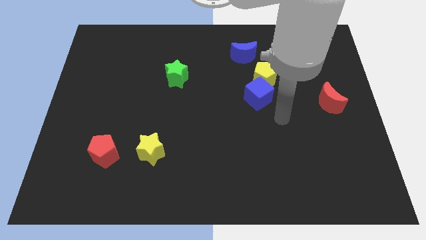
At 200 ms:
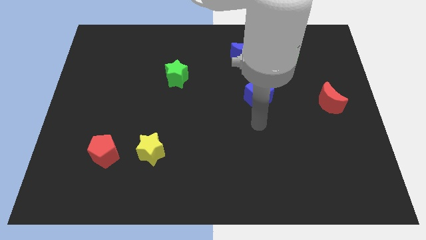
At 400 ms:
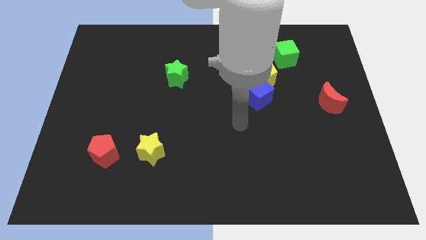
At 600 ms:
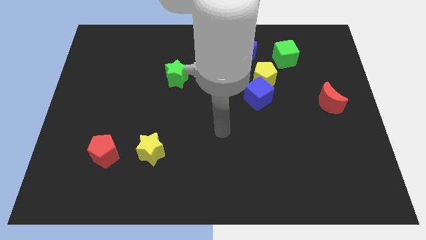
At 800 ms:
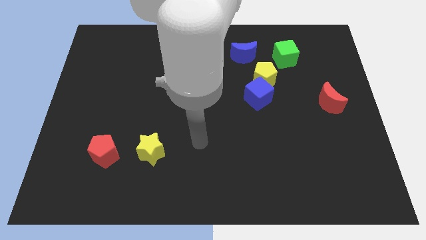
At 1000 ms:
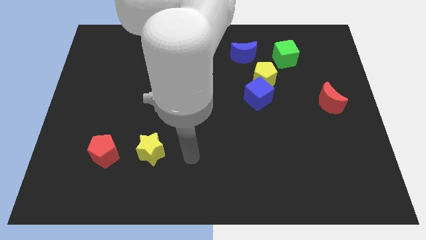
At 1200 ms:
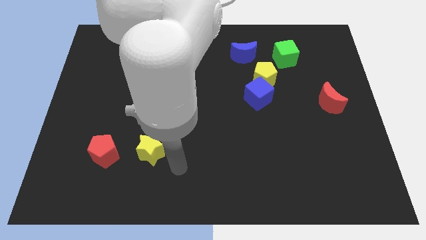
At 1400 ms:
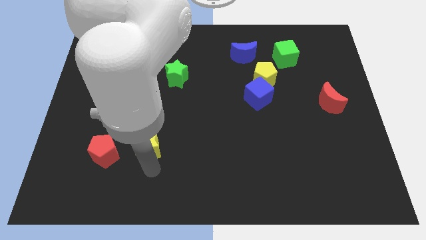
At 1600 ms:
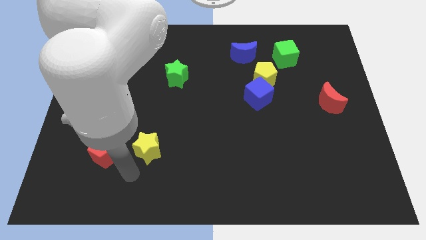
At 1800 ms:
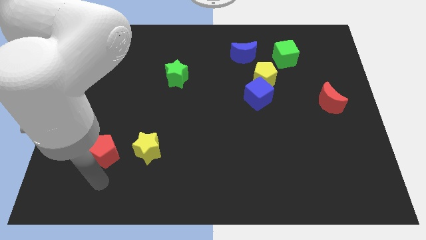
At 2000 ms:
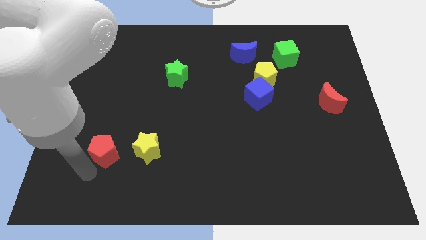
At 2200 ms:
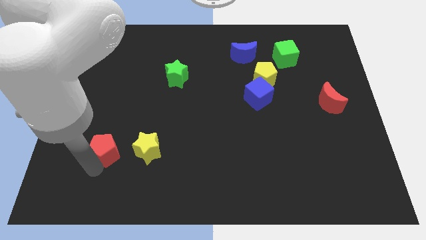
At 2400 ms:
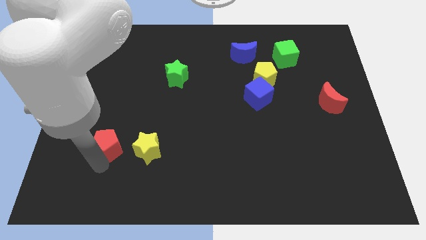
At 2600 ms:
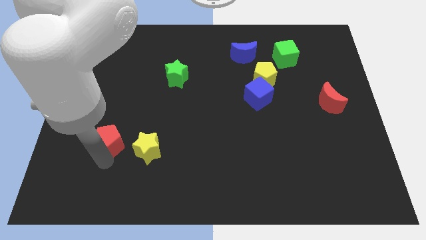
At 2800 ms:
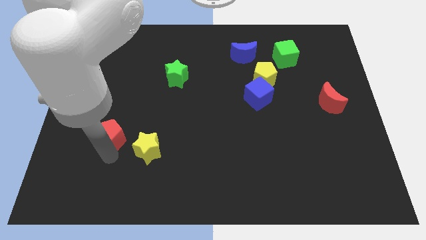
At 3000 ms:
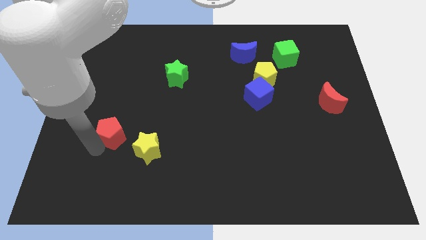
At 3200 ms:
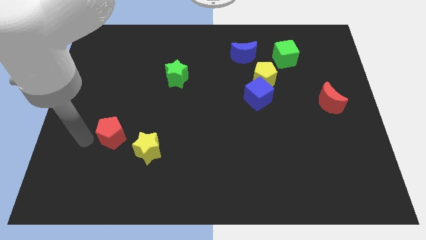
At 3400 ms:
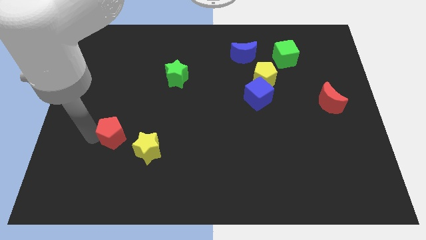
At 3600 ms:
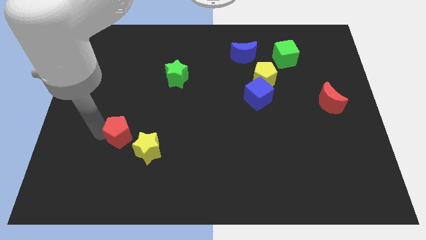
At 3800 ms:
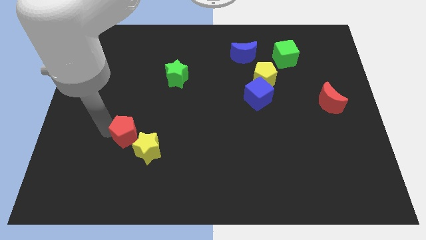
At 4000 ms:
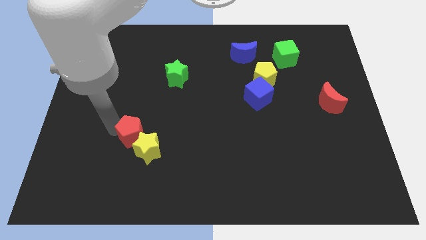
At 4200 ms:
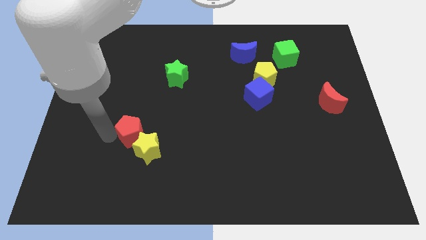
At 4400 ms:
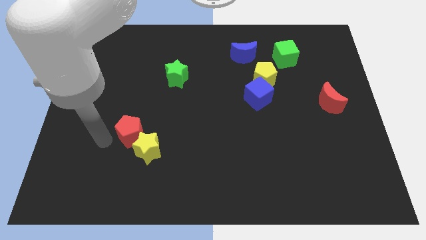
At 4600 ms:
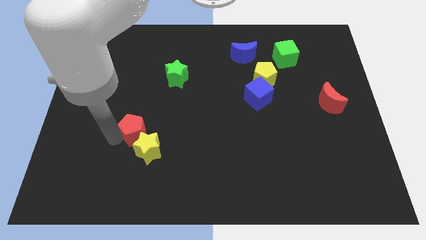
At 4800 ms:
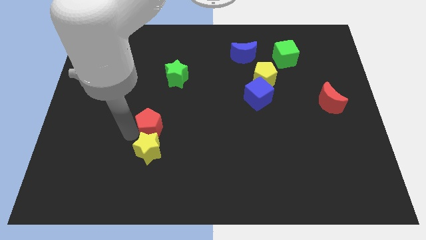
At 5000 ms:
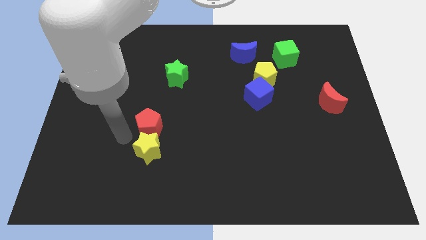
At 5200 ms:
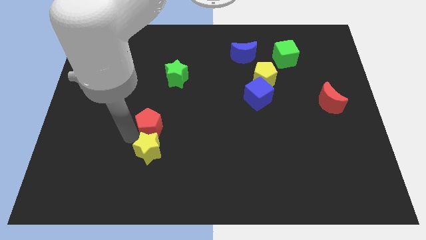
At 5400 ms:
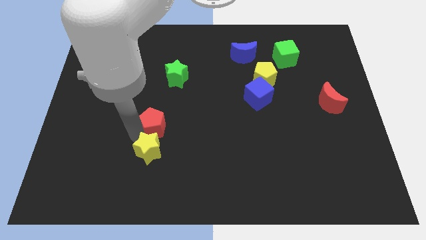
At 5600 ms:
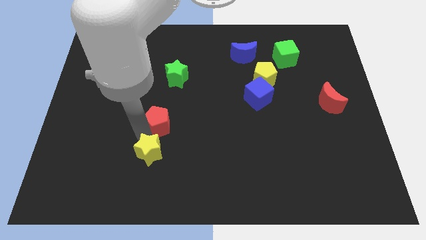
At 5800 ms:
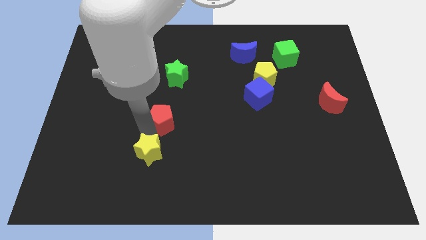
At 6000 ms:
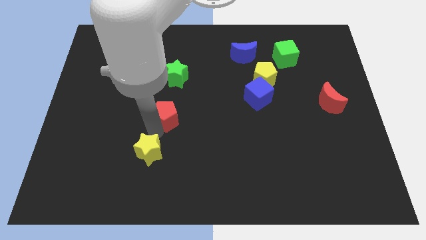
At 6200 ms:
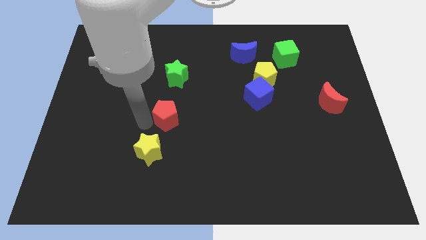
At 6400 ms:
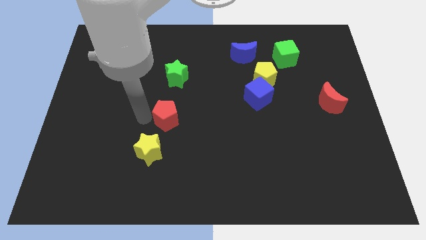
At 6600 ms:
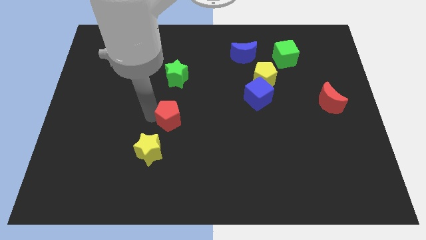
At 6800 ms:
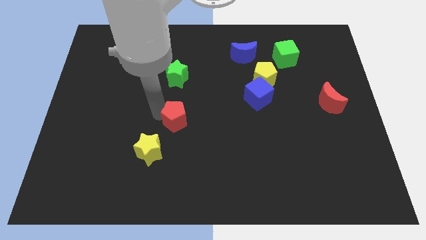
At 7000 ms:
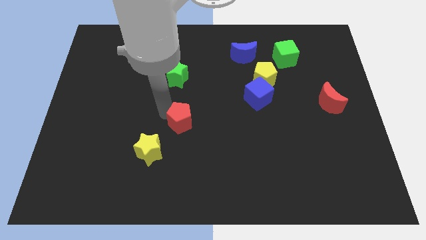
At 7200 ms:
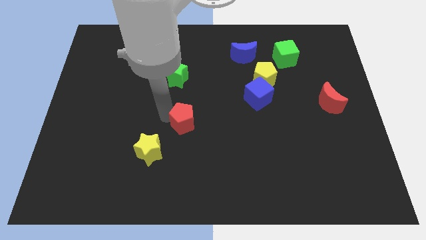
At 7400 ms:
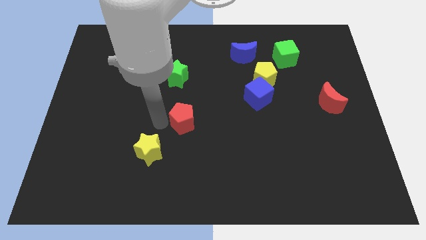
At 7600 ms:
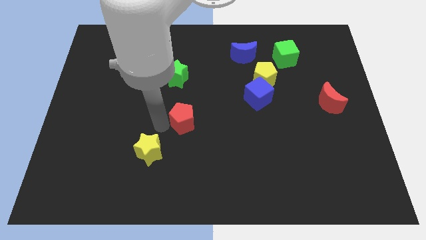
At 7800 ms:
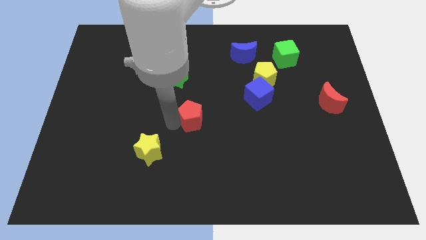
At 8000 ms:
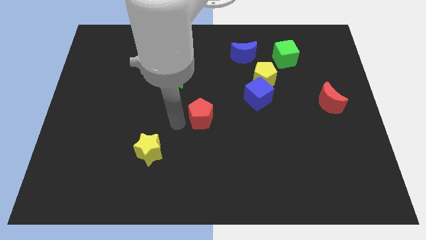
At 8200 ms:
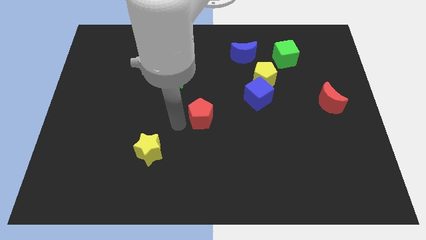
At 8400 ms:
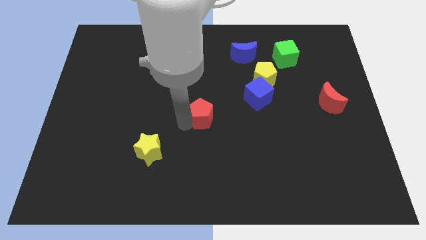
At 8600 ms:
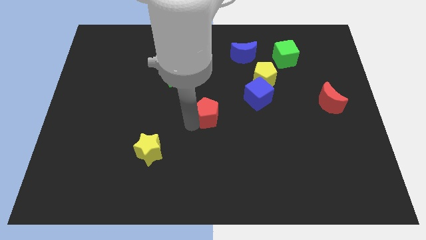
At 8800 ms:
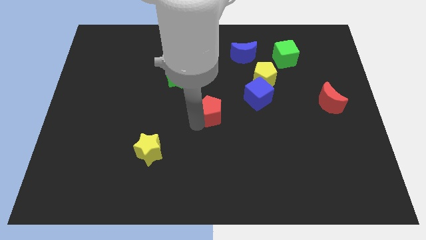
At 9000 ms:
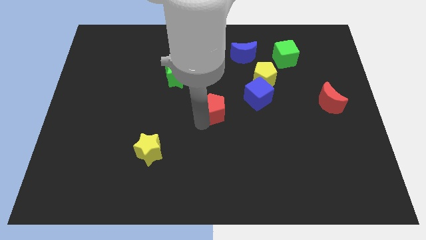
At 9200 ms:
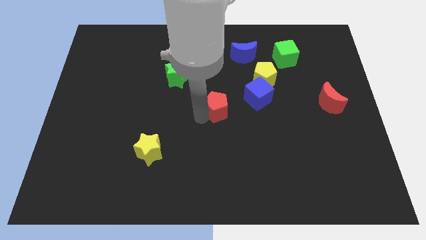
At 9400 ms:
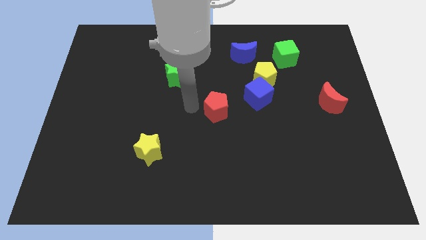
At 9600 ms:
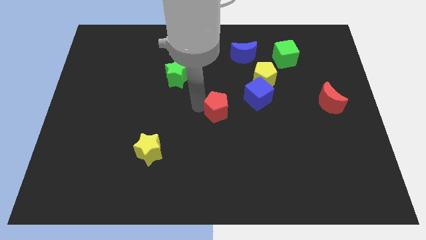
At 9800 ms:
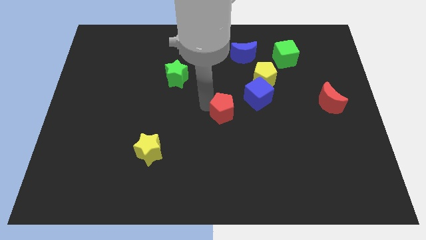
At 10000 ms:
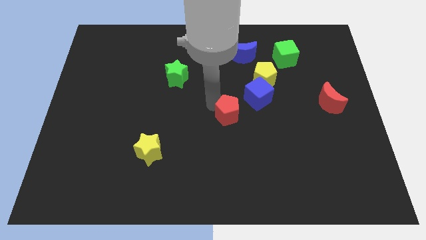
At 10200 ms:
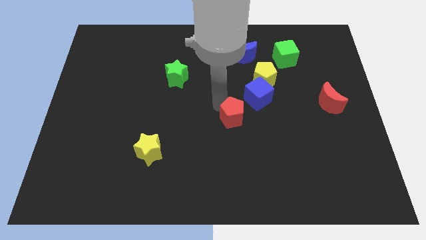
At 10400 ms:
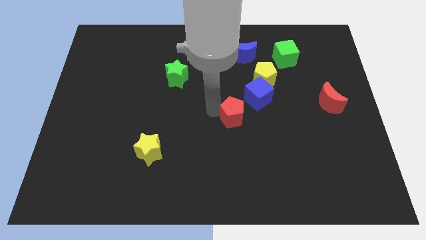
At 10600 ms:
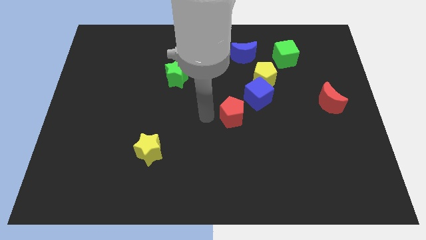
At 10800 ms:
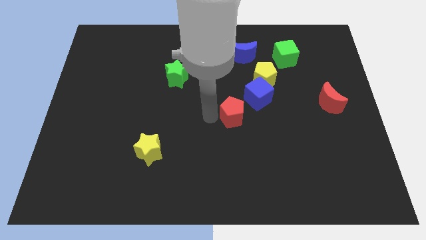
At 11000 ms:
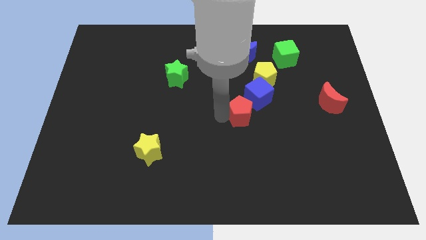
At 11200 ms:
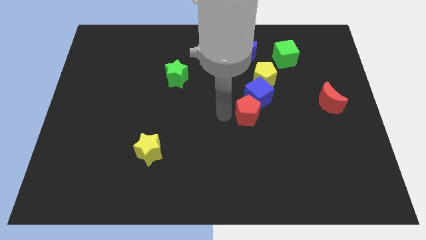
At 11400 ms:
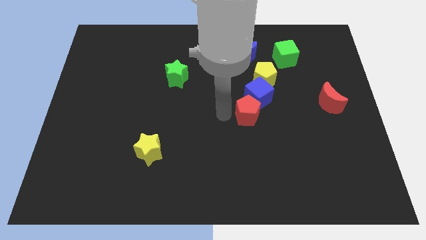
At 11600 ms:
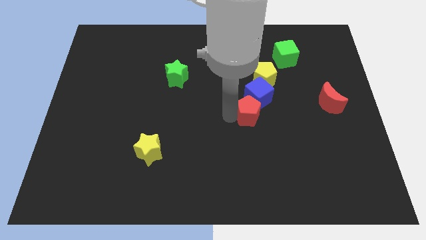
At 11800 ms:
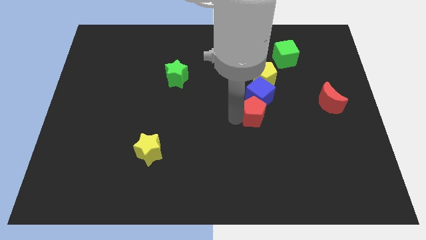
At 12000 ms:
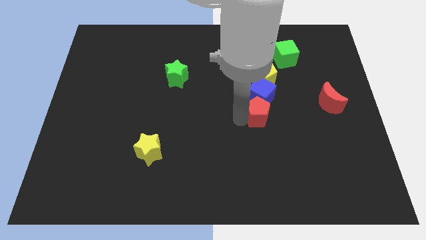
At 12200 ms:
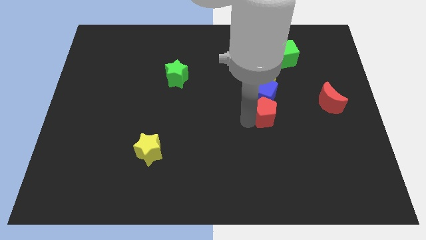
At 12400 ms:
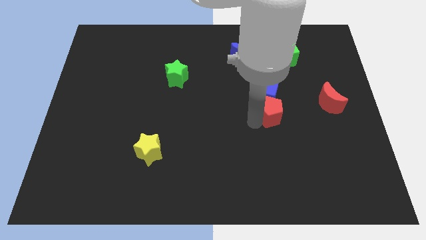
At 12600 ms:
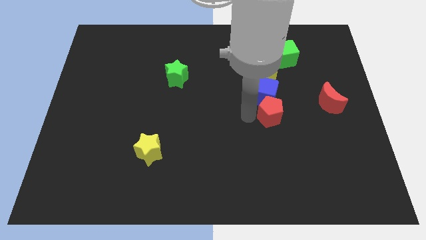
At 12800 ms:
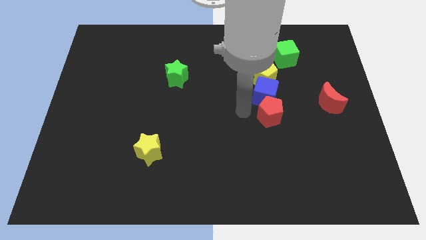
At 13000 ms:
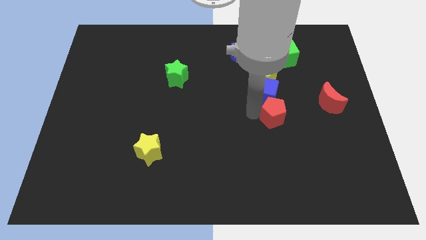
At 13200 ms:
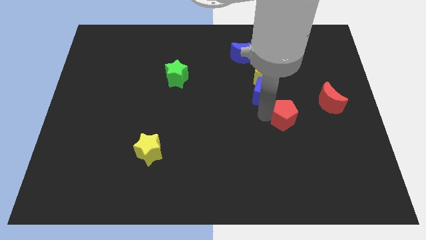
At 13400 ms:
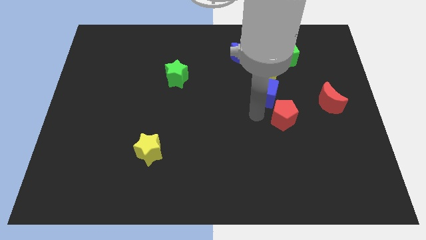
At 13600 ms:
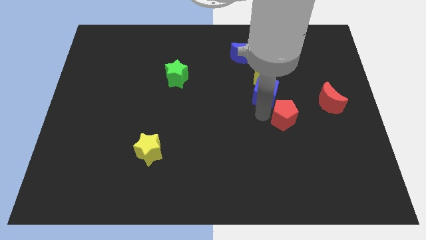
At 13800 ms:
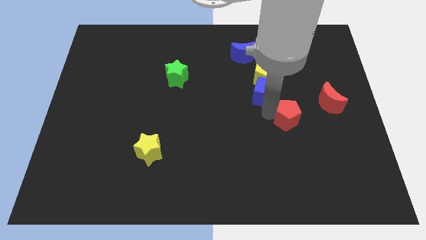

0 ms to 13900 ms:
push the red pentagon diagonally down and to the left of the red moon

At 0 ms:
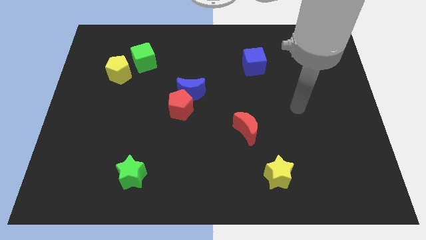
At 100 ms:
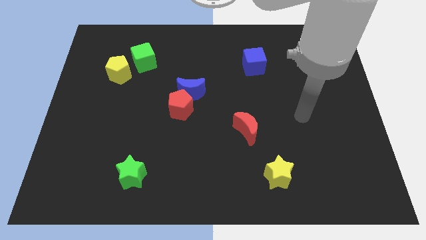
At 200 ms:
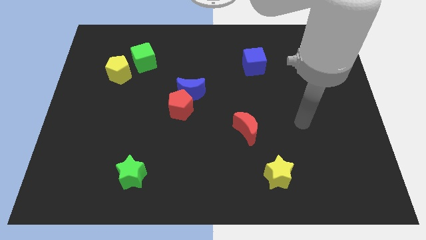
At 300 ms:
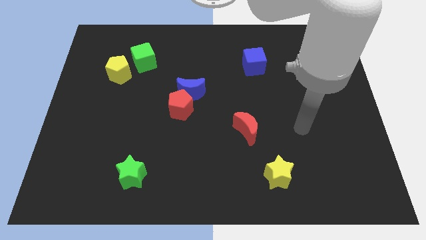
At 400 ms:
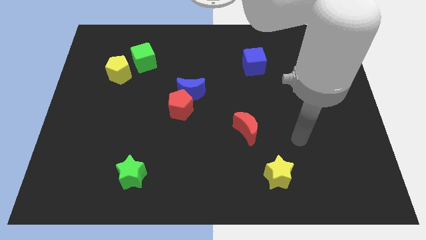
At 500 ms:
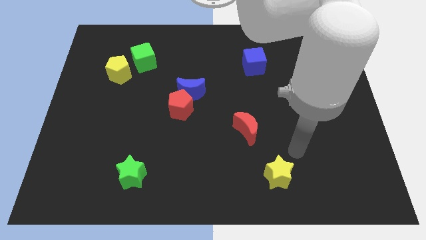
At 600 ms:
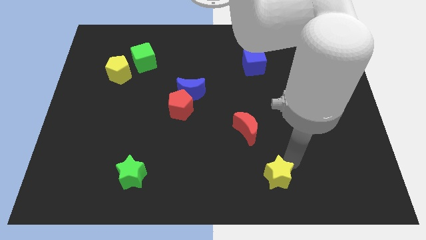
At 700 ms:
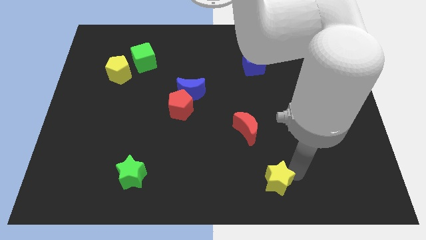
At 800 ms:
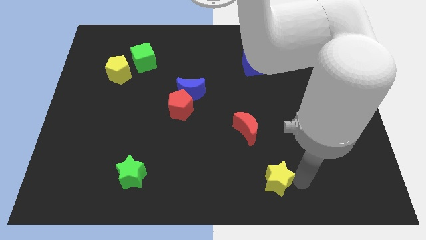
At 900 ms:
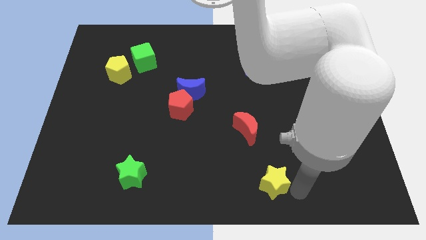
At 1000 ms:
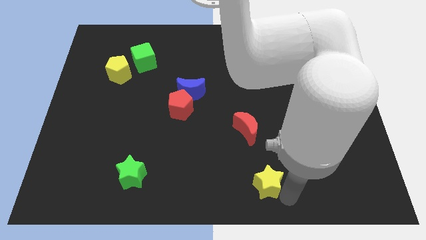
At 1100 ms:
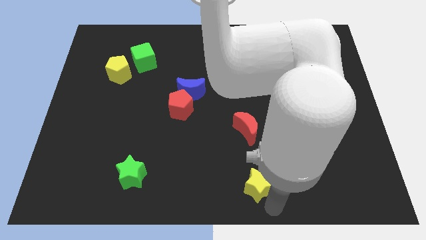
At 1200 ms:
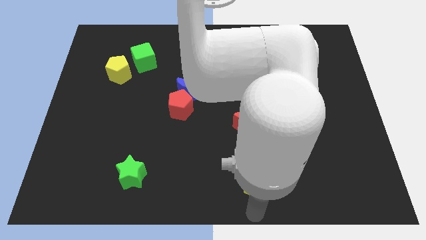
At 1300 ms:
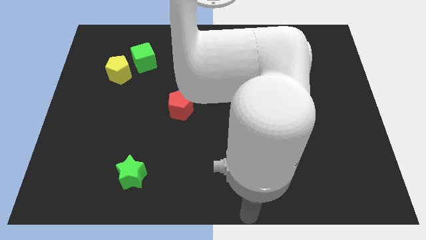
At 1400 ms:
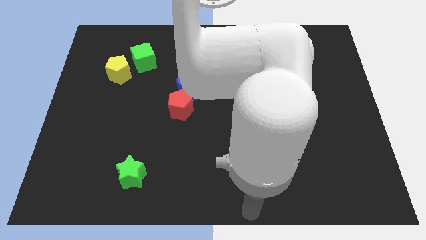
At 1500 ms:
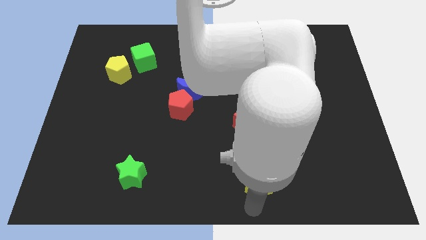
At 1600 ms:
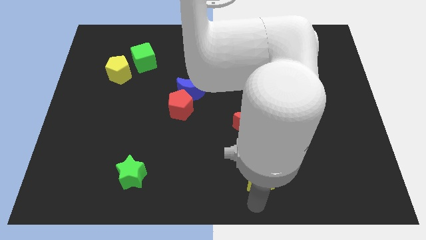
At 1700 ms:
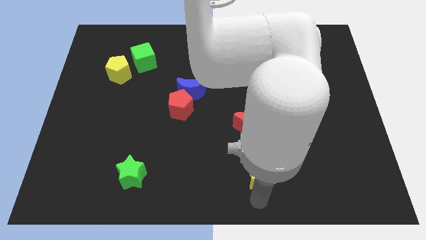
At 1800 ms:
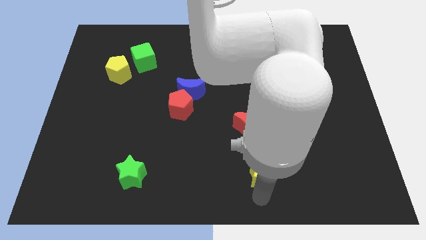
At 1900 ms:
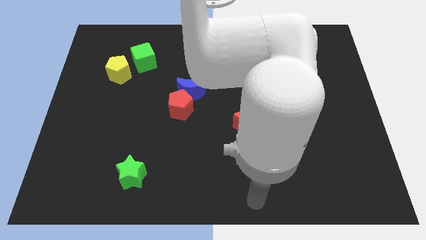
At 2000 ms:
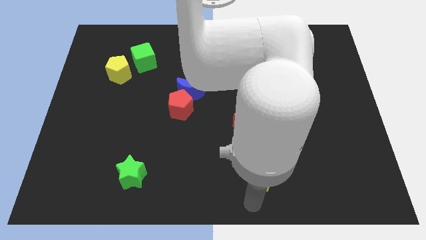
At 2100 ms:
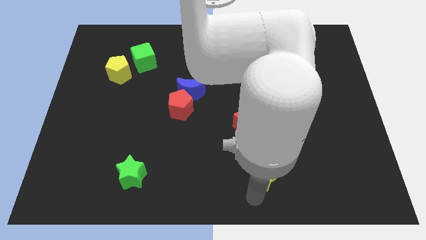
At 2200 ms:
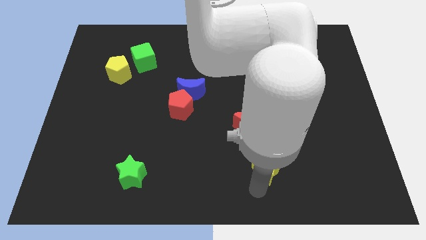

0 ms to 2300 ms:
move the yellow star diagonally down and to the right of the red moon
